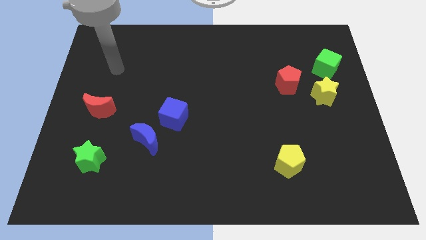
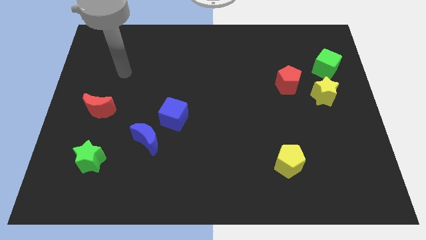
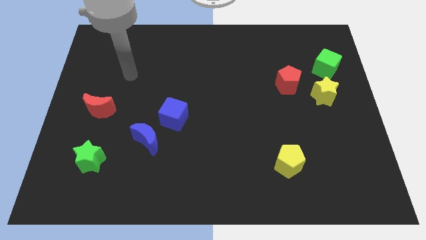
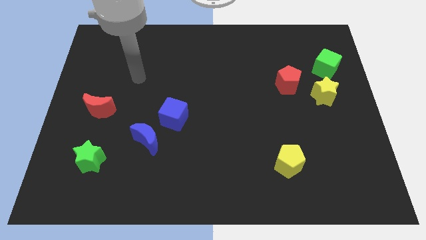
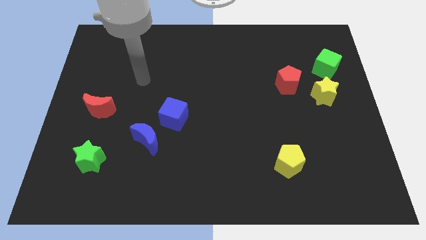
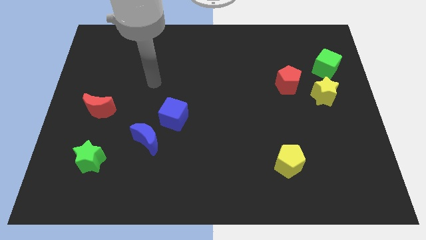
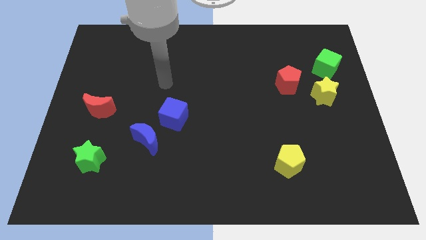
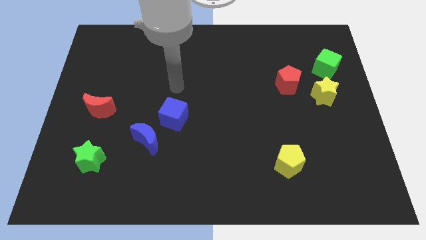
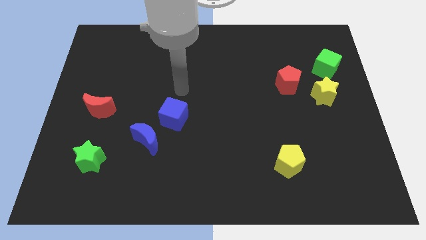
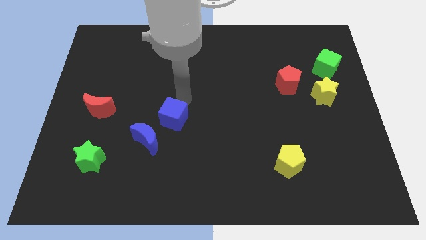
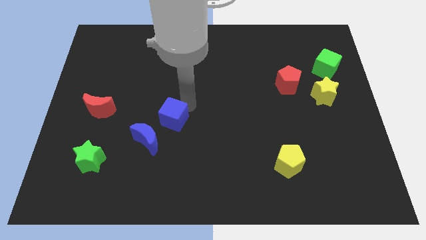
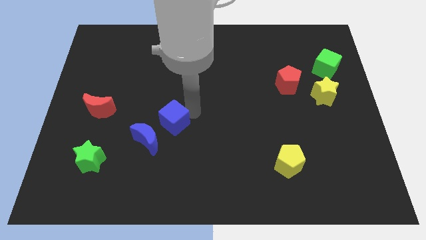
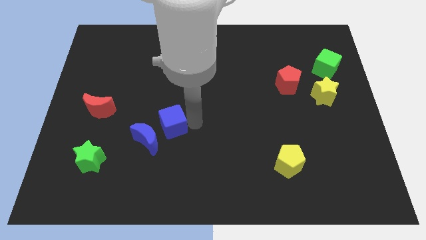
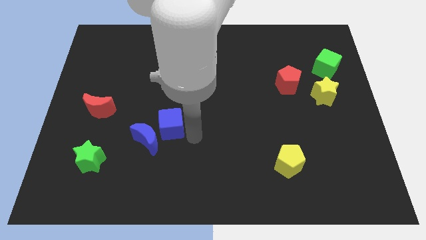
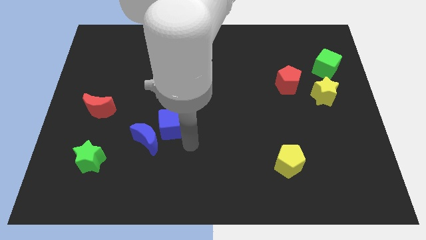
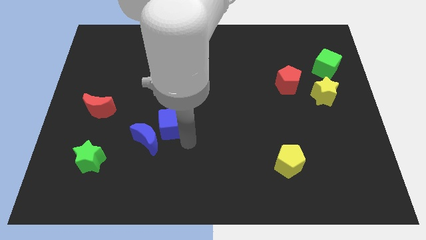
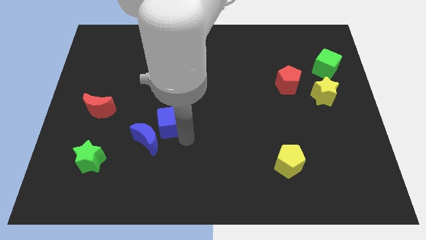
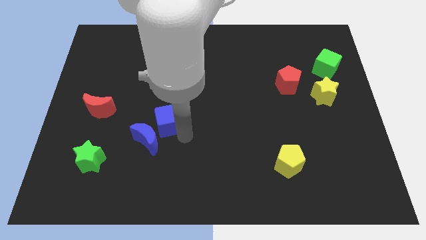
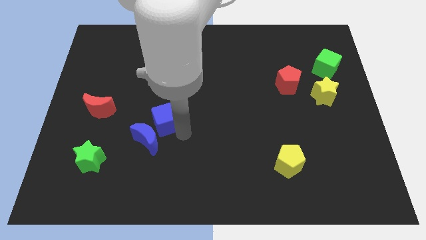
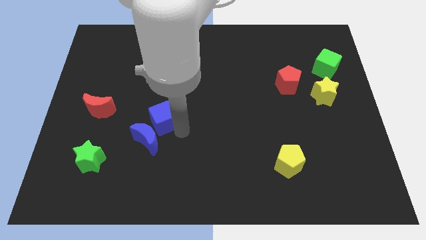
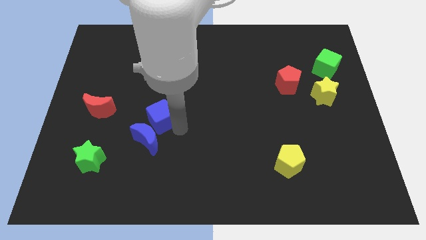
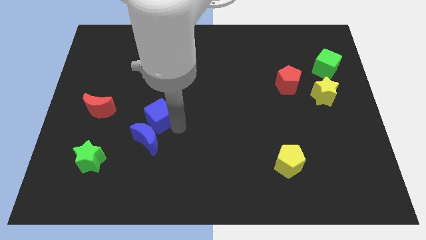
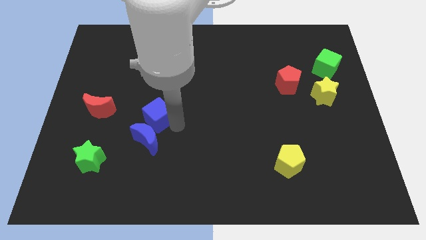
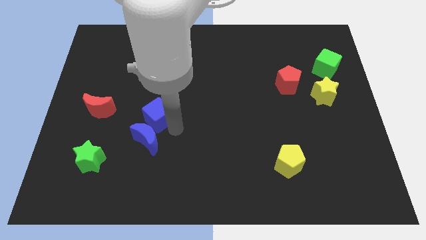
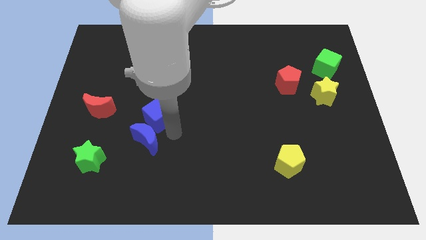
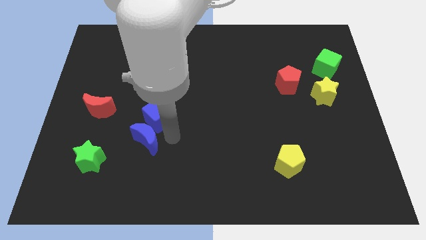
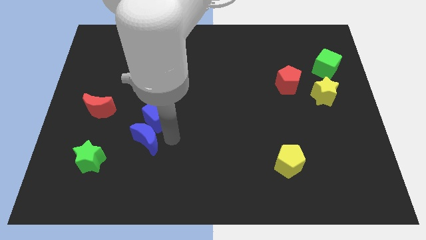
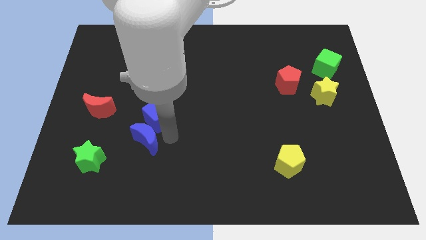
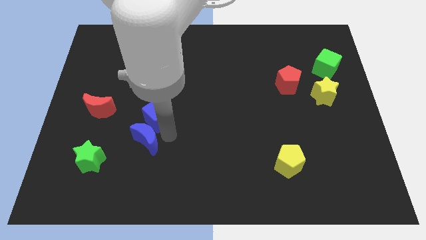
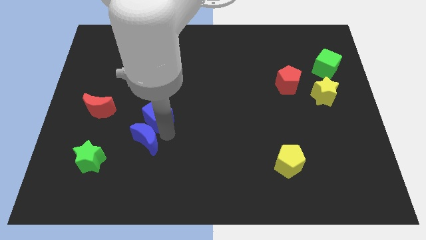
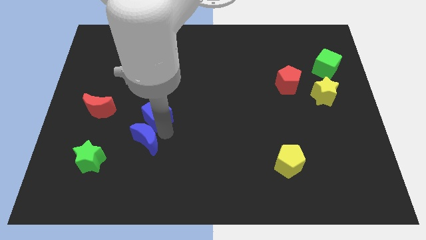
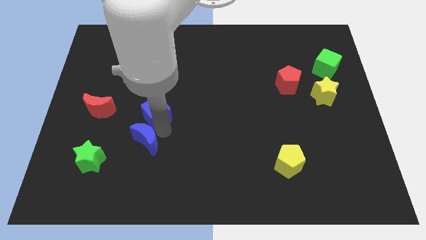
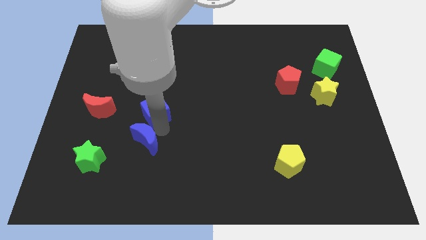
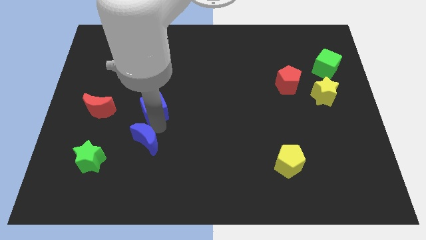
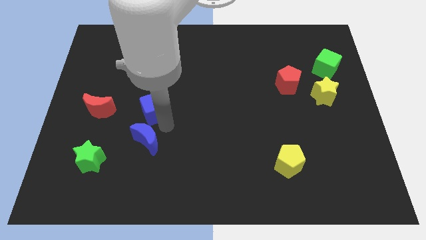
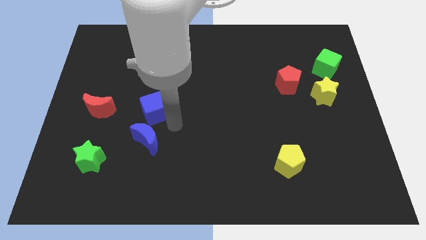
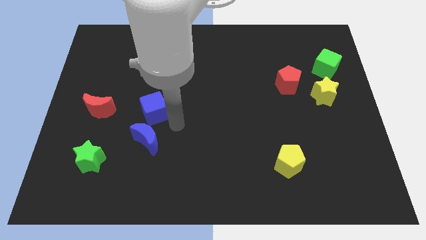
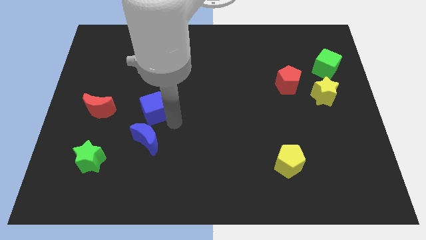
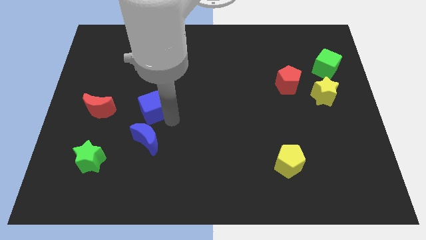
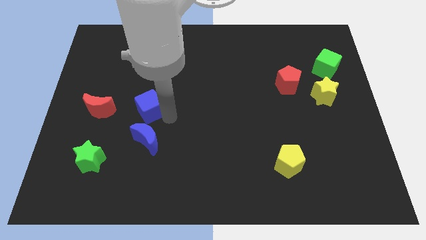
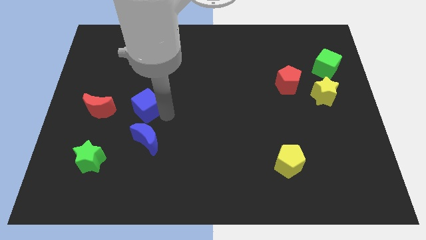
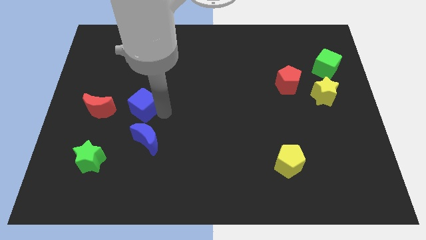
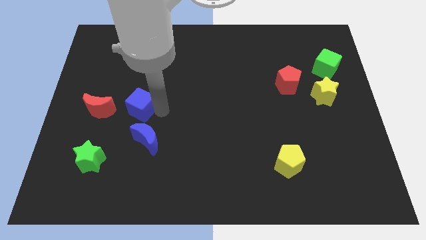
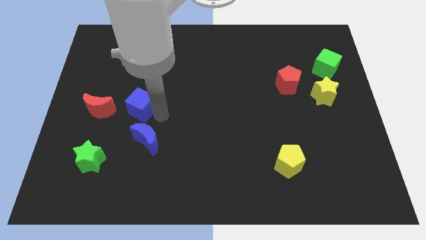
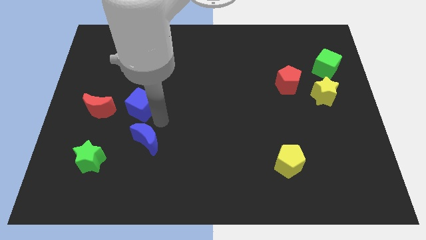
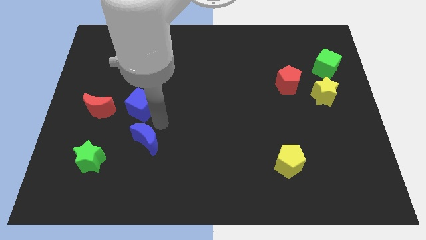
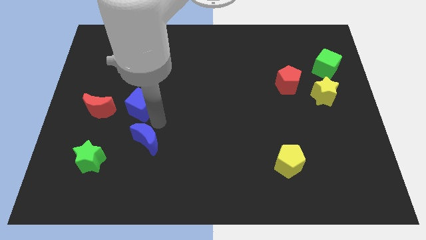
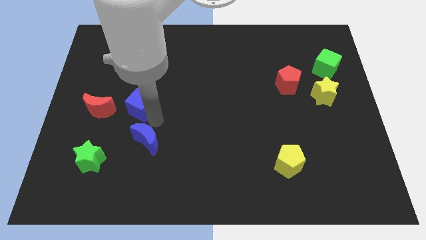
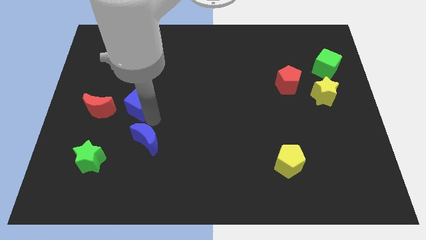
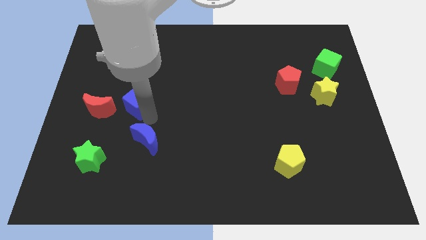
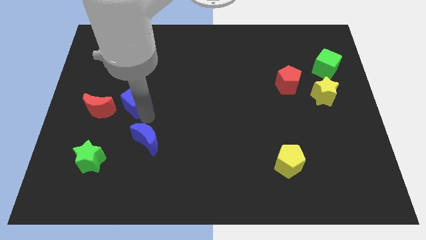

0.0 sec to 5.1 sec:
move the blue cube to the top right side of the red moon

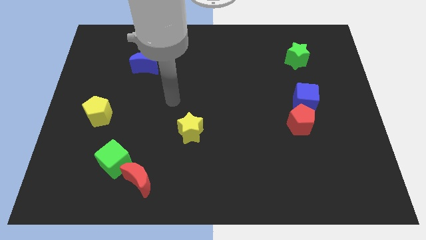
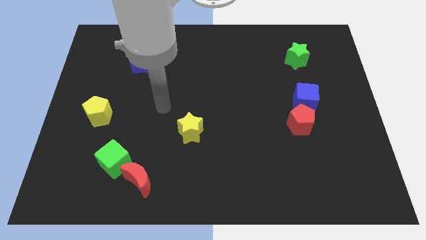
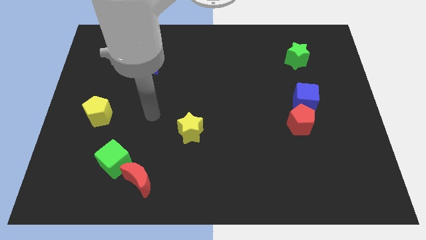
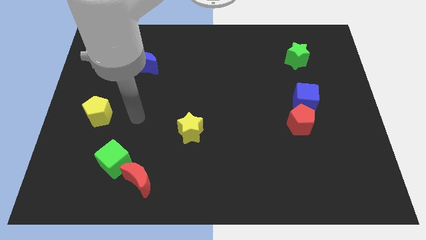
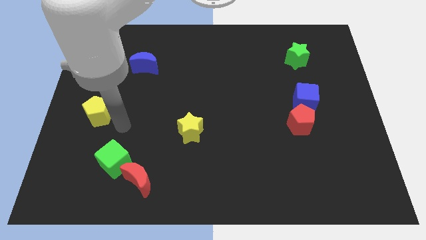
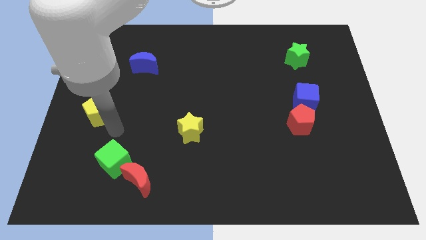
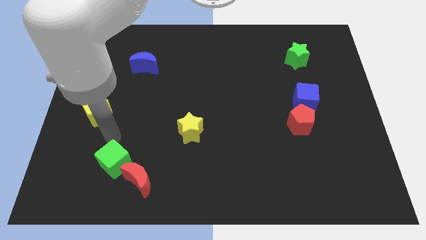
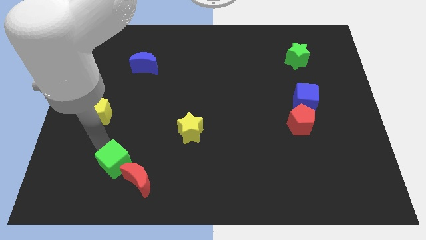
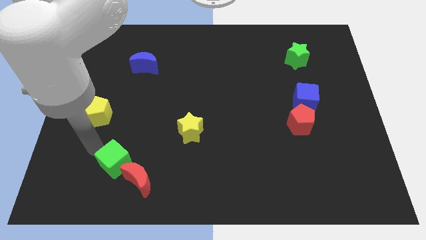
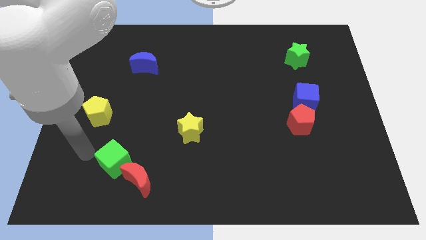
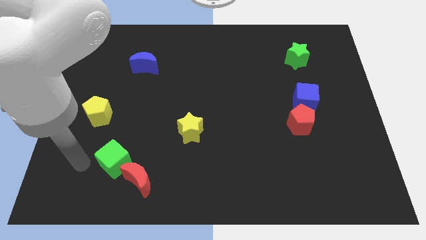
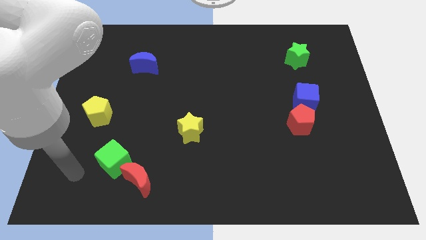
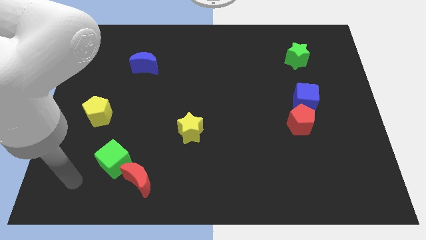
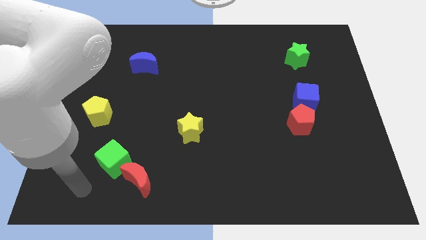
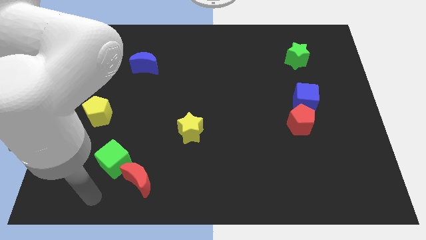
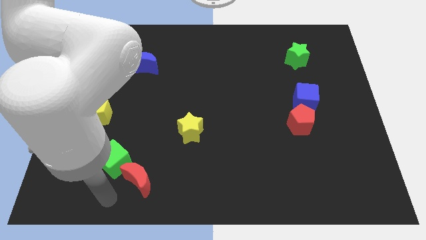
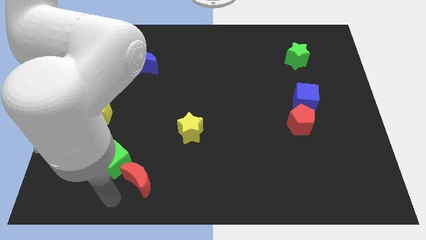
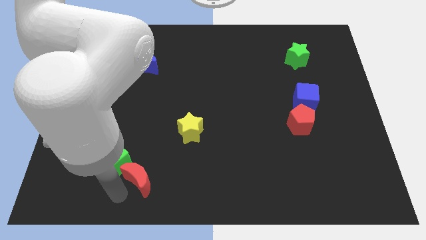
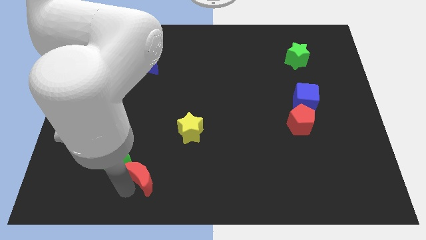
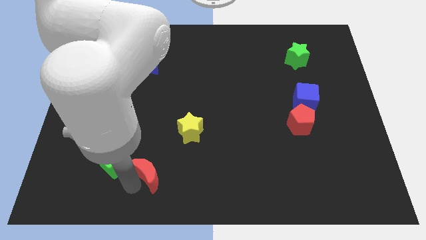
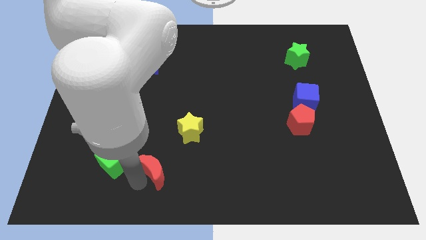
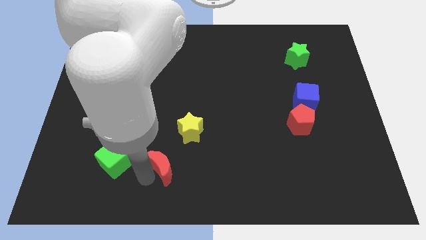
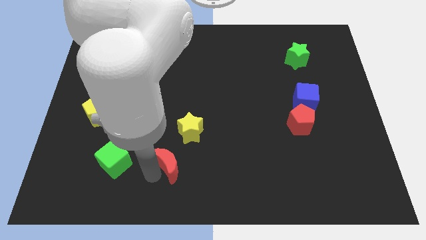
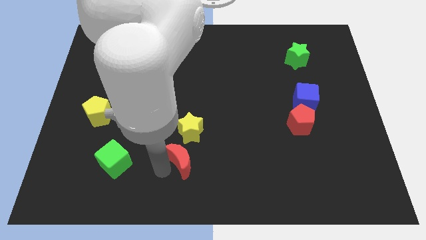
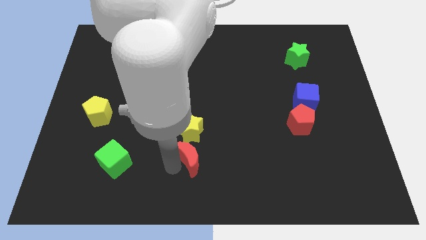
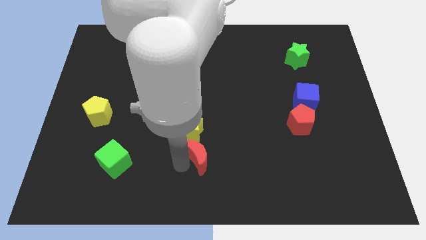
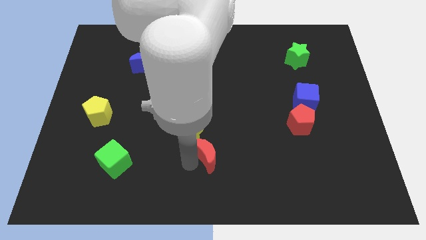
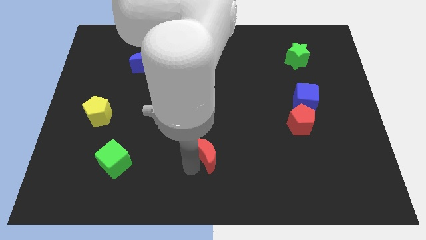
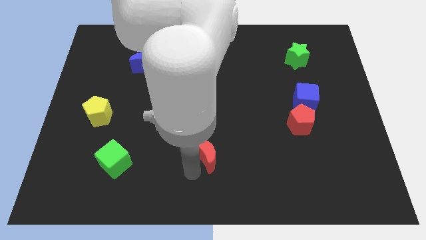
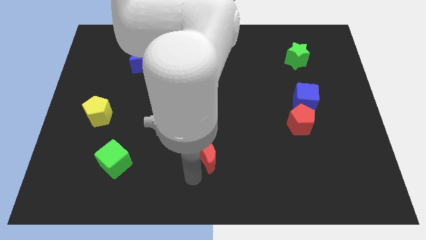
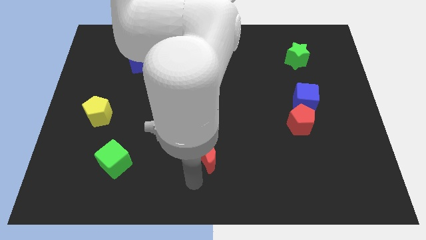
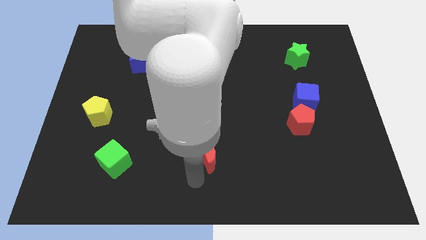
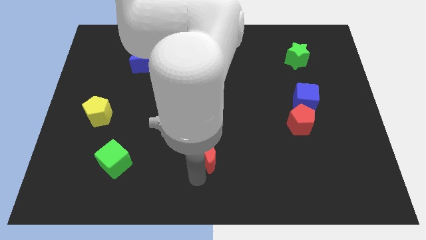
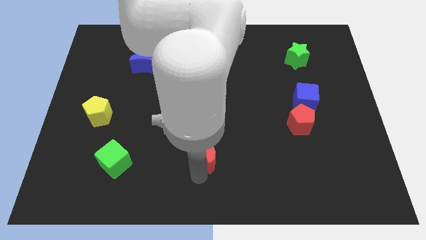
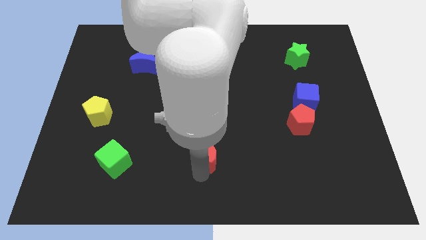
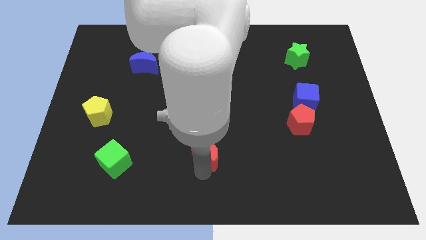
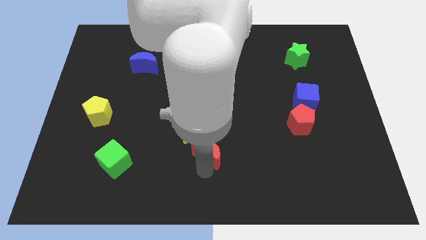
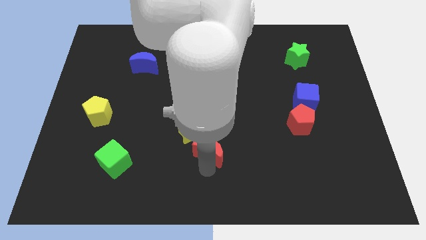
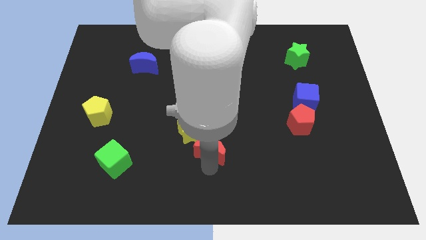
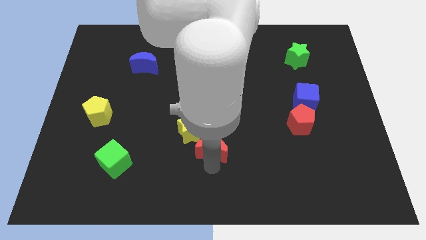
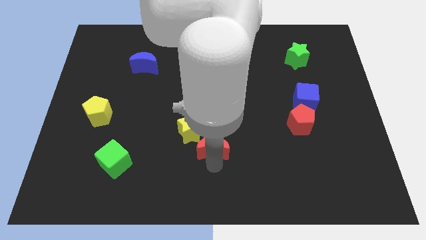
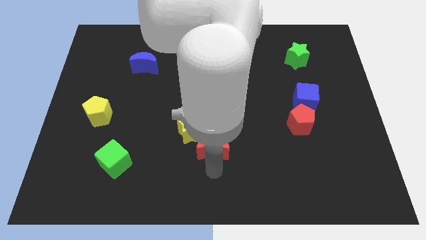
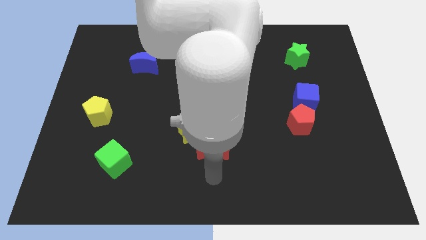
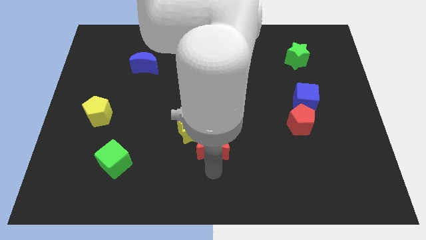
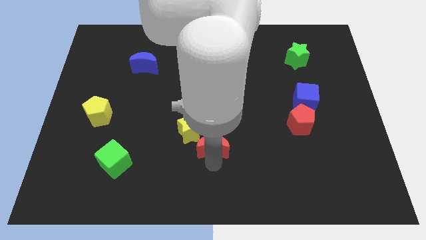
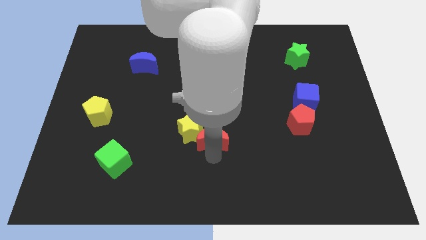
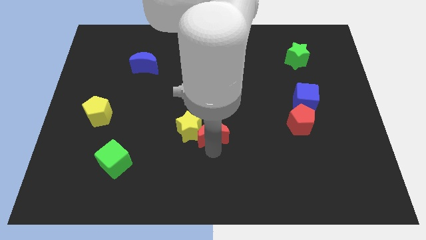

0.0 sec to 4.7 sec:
slide the red moon diagonally up and to the right of the yellow star
